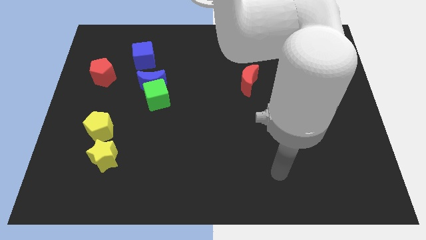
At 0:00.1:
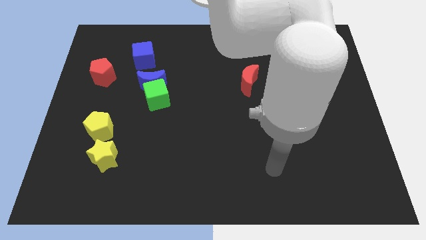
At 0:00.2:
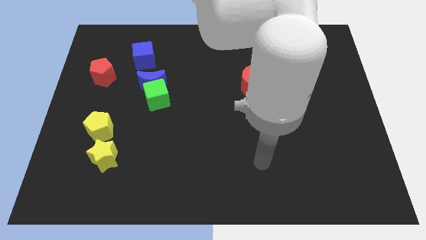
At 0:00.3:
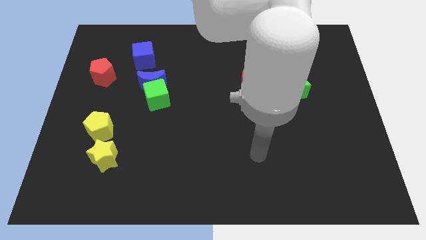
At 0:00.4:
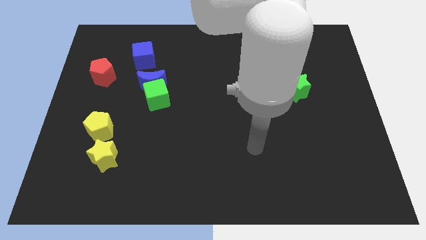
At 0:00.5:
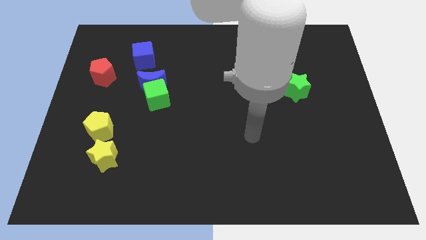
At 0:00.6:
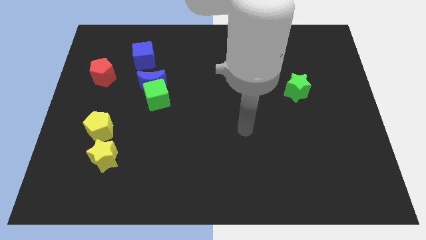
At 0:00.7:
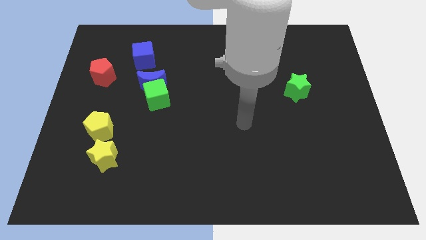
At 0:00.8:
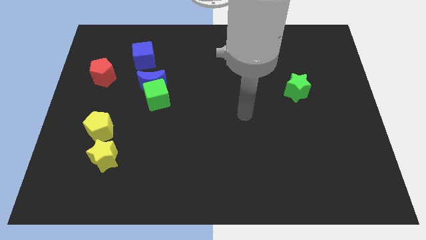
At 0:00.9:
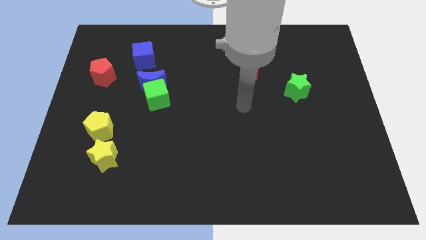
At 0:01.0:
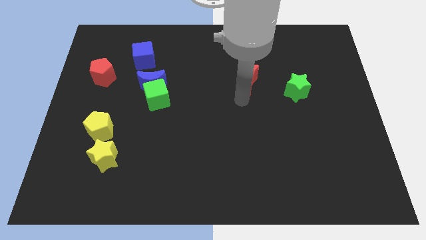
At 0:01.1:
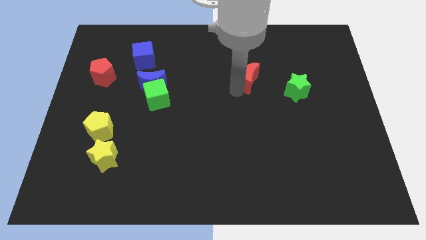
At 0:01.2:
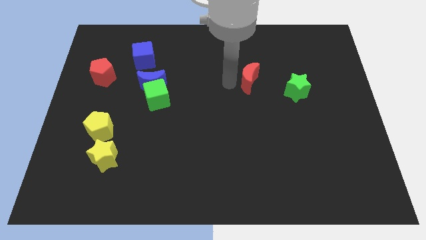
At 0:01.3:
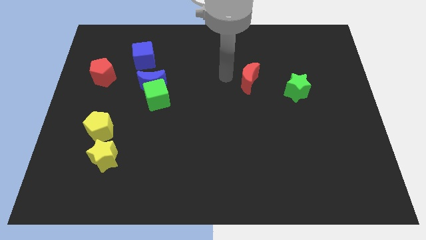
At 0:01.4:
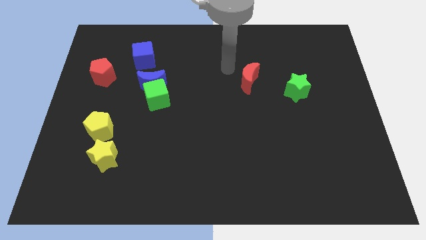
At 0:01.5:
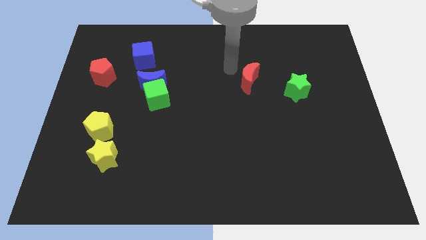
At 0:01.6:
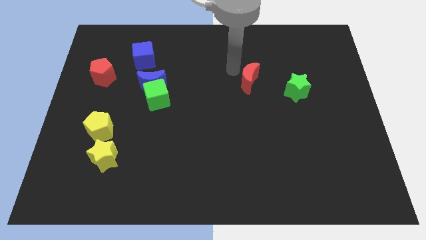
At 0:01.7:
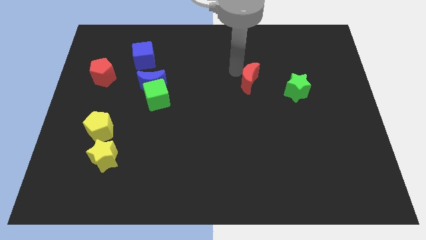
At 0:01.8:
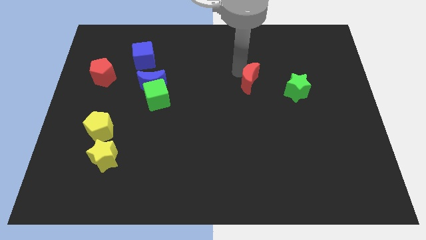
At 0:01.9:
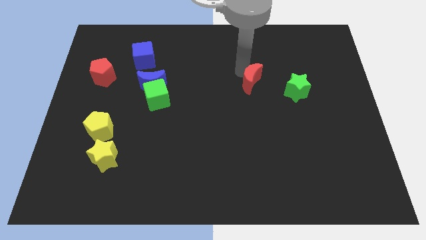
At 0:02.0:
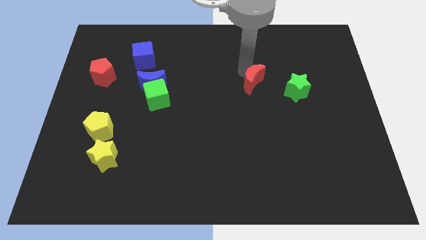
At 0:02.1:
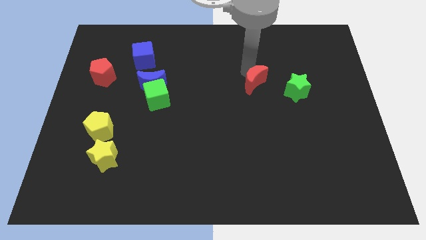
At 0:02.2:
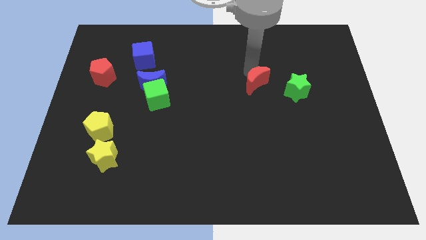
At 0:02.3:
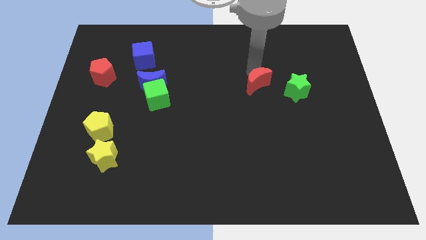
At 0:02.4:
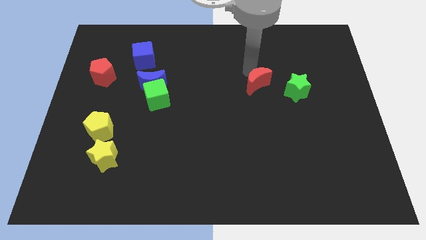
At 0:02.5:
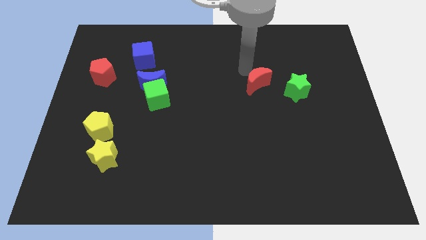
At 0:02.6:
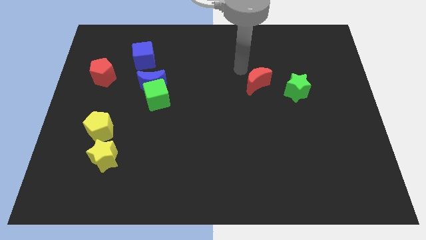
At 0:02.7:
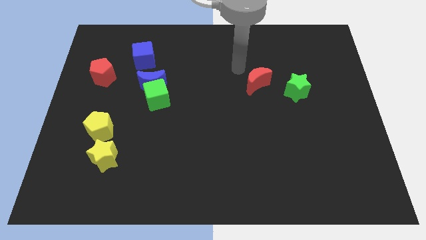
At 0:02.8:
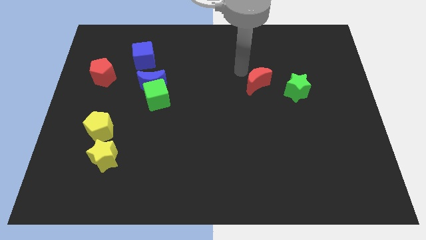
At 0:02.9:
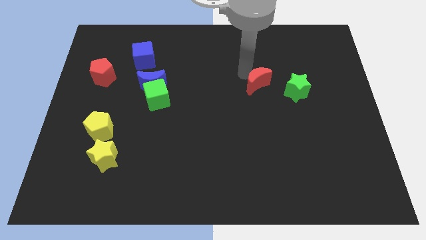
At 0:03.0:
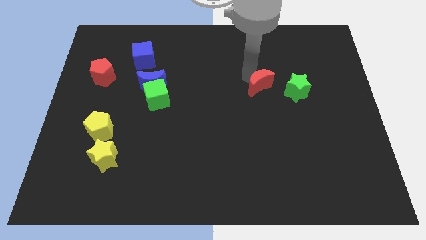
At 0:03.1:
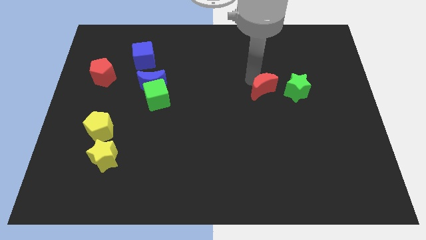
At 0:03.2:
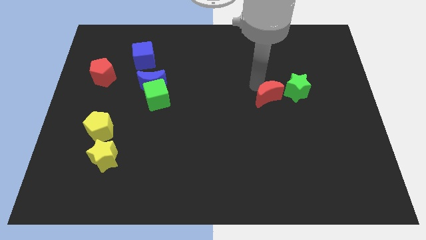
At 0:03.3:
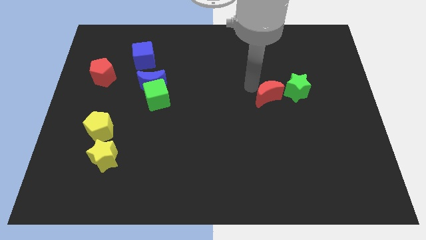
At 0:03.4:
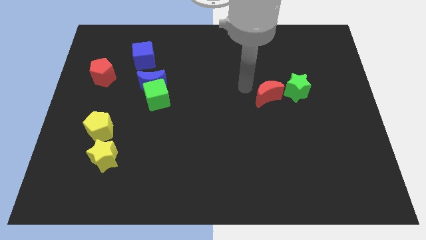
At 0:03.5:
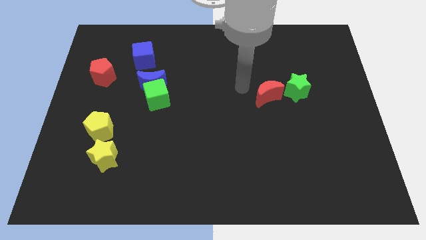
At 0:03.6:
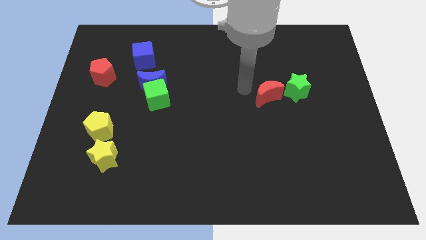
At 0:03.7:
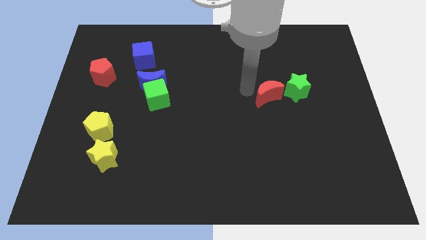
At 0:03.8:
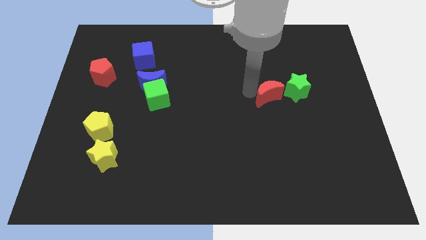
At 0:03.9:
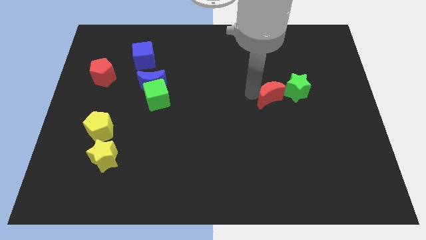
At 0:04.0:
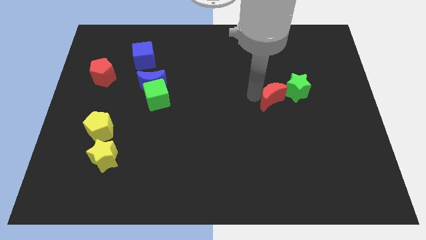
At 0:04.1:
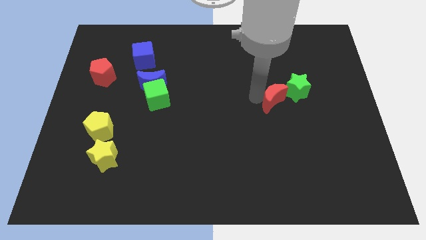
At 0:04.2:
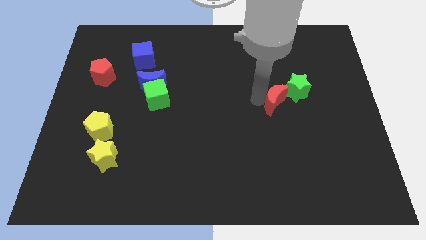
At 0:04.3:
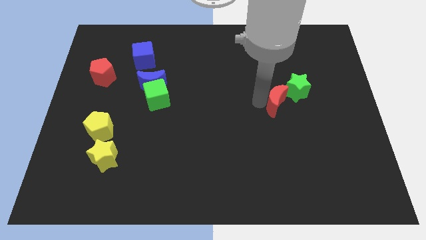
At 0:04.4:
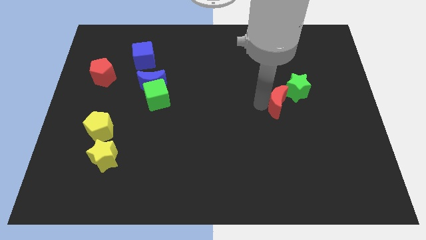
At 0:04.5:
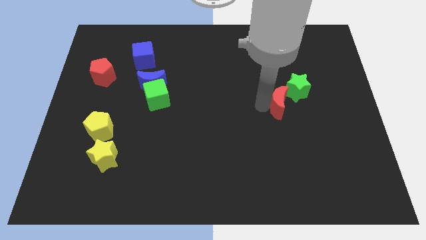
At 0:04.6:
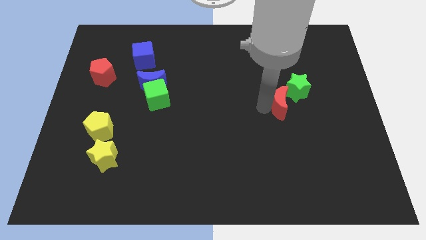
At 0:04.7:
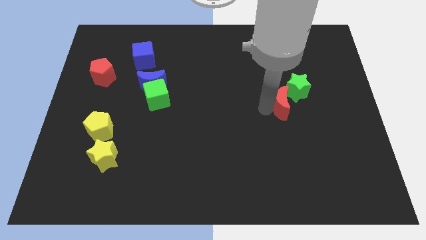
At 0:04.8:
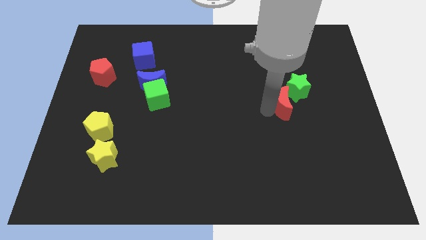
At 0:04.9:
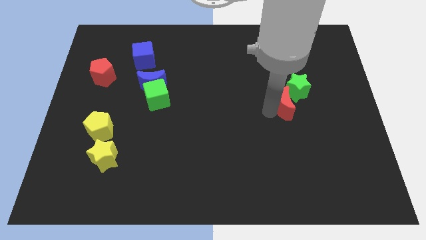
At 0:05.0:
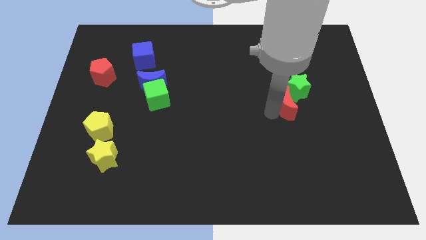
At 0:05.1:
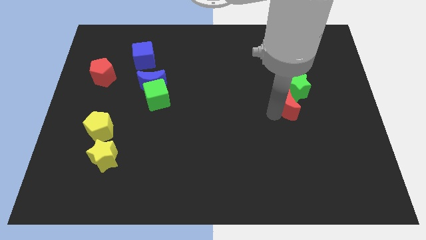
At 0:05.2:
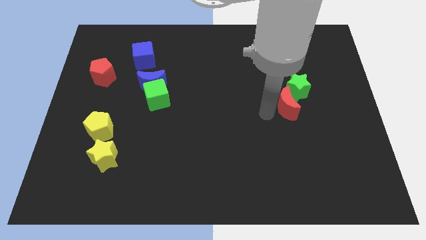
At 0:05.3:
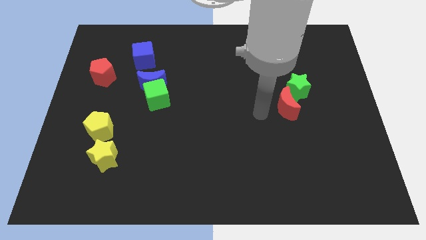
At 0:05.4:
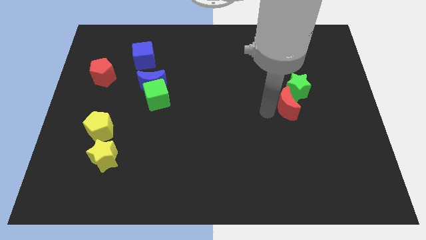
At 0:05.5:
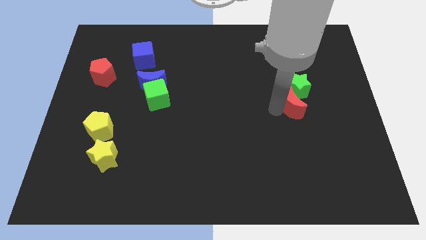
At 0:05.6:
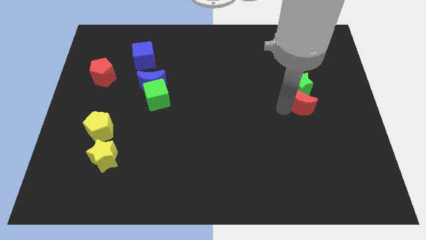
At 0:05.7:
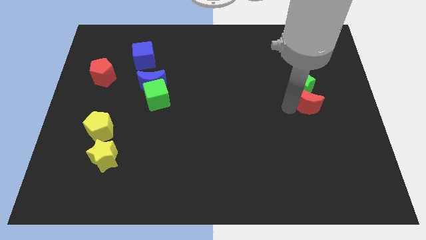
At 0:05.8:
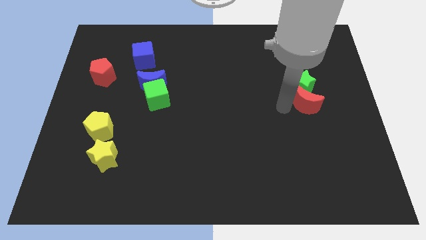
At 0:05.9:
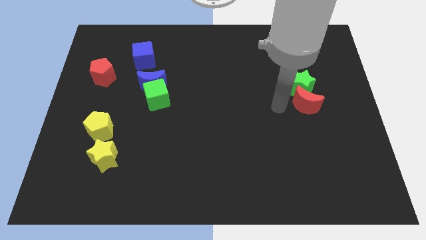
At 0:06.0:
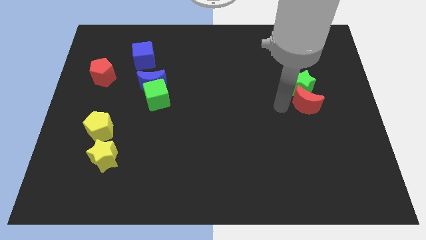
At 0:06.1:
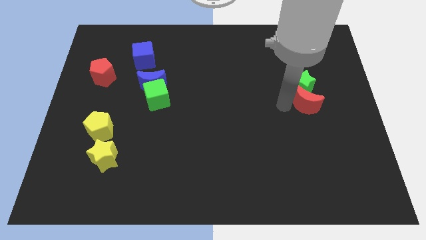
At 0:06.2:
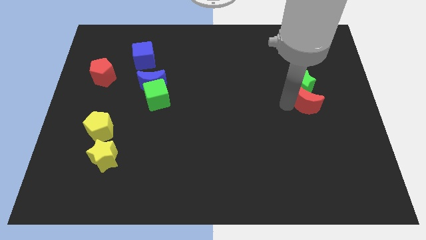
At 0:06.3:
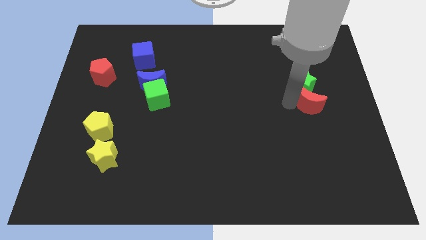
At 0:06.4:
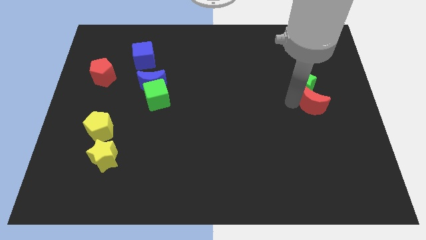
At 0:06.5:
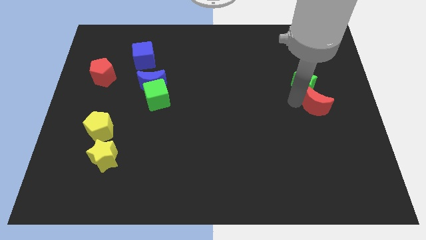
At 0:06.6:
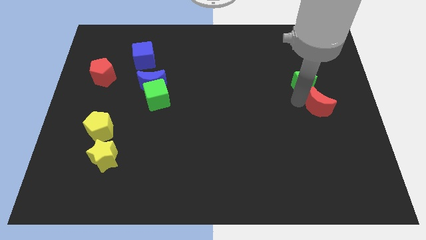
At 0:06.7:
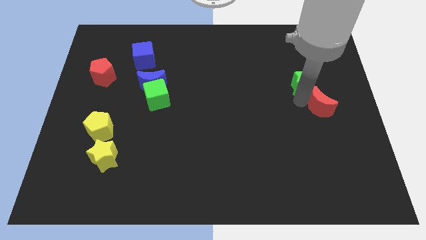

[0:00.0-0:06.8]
slide the red moon to the right side of the board

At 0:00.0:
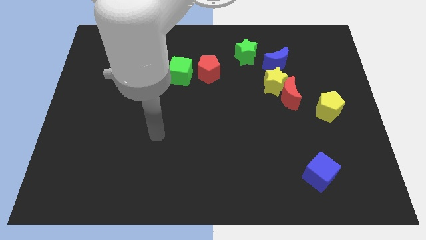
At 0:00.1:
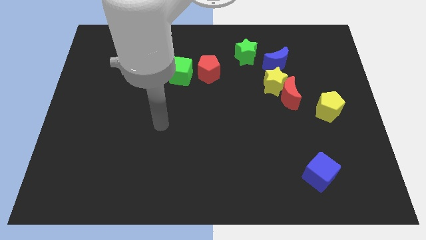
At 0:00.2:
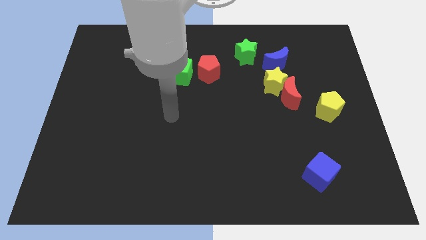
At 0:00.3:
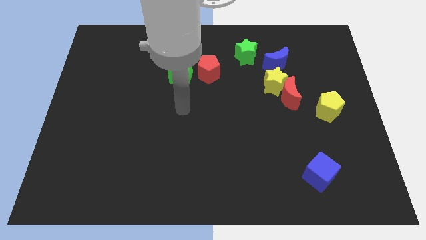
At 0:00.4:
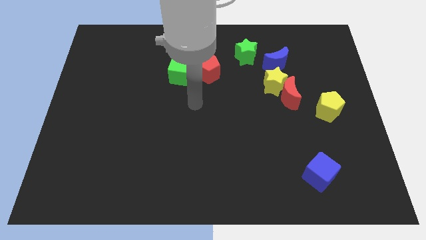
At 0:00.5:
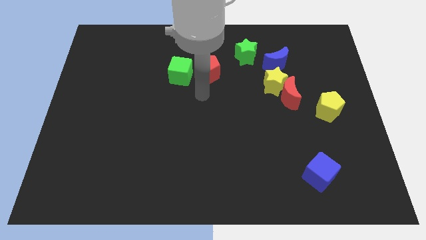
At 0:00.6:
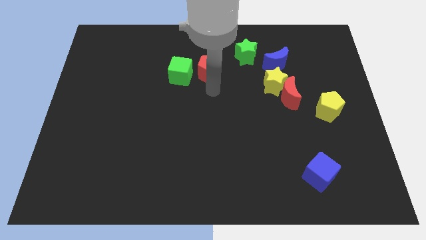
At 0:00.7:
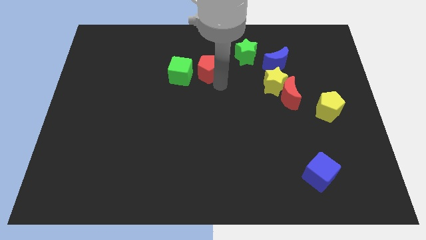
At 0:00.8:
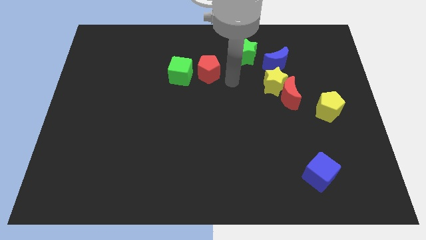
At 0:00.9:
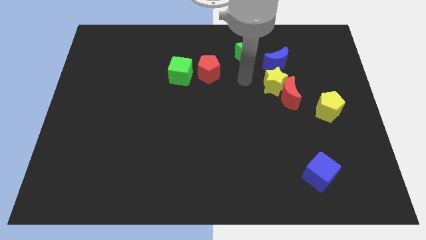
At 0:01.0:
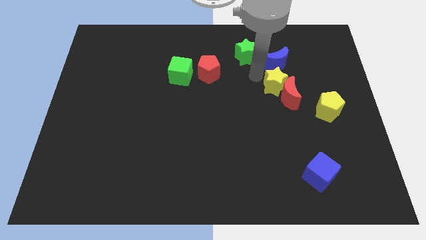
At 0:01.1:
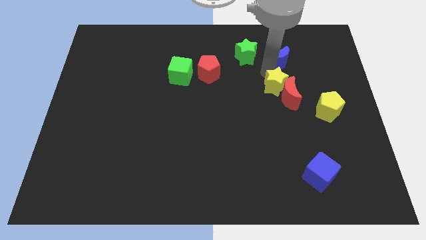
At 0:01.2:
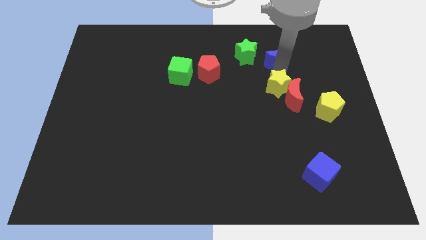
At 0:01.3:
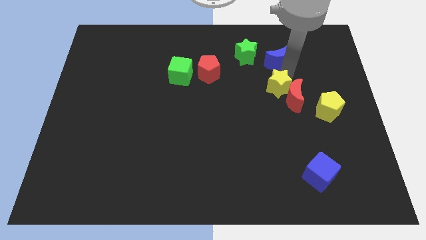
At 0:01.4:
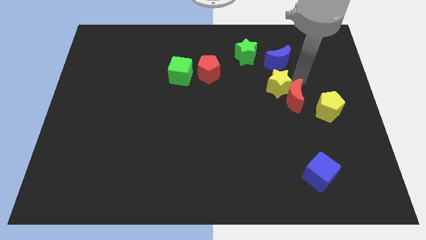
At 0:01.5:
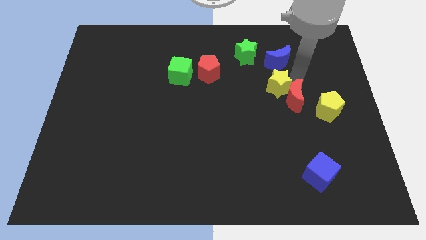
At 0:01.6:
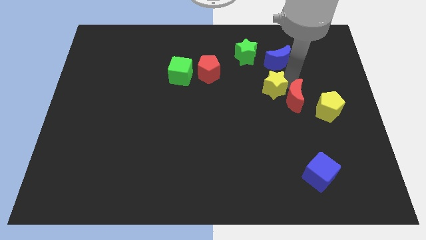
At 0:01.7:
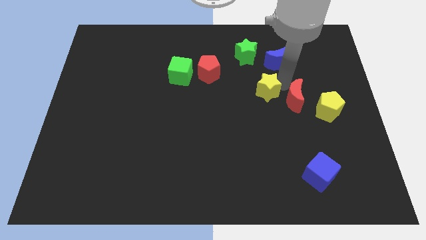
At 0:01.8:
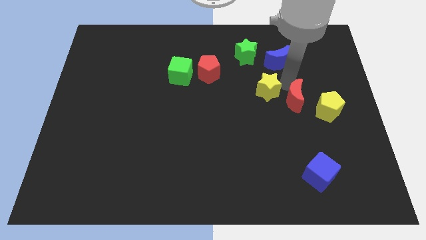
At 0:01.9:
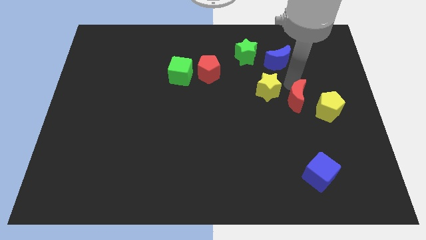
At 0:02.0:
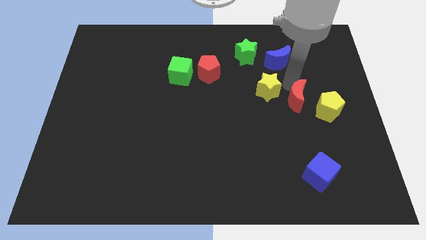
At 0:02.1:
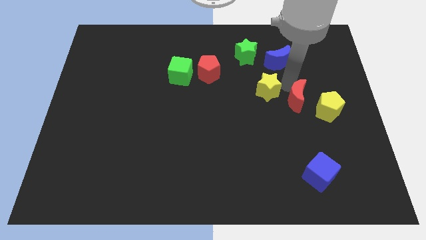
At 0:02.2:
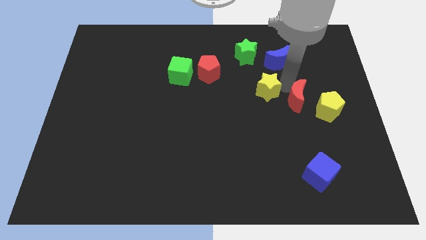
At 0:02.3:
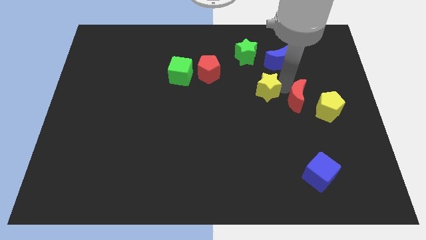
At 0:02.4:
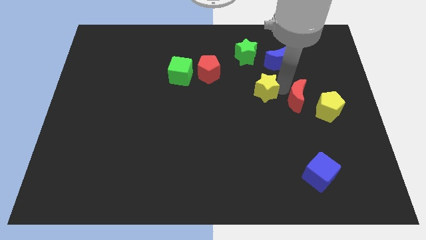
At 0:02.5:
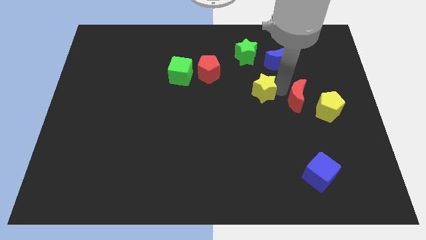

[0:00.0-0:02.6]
put the yellow star to the center of the board
